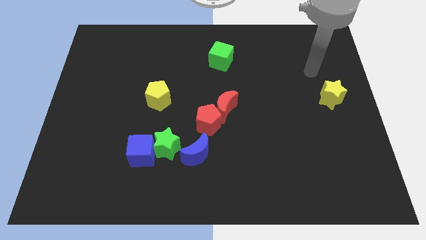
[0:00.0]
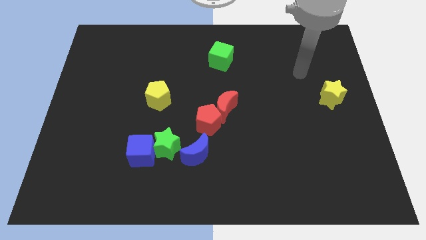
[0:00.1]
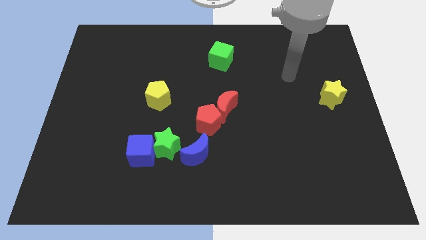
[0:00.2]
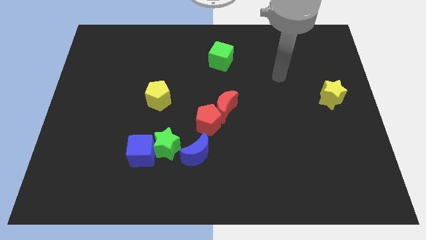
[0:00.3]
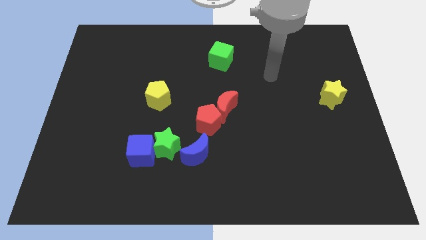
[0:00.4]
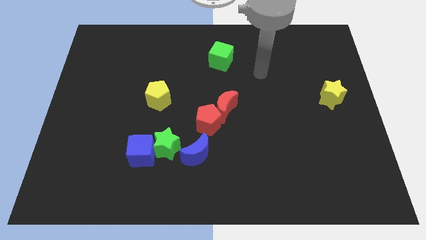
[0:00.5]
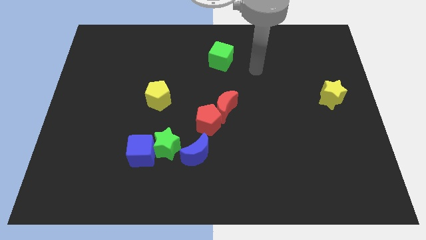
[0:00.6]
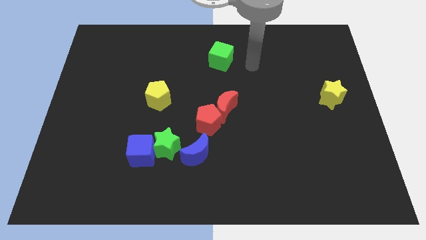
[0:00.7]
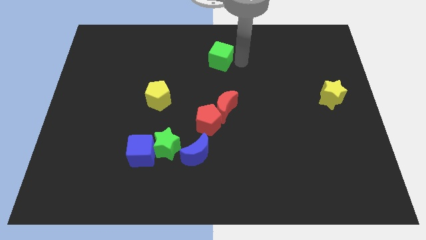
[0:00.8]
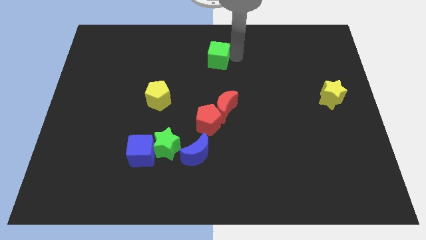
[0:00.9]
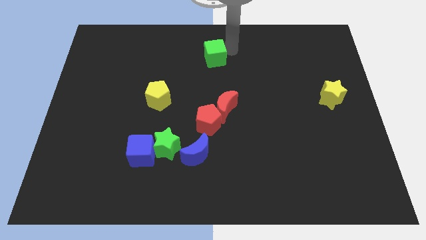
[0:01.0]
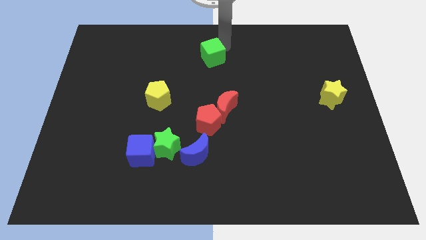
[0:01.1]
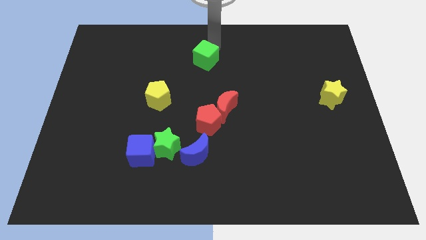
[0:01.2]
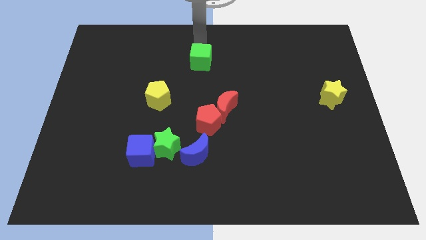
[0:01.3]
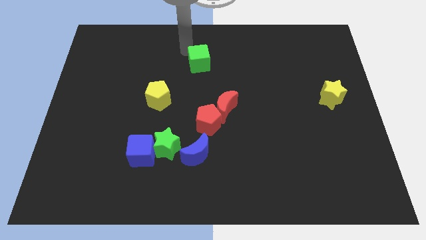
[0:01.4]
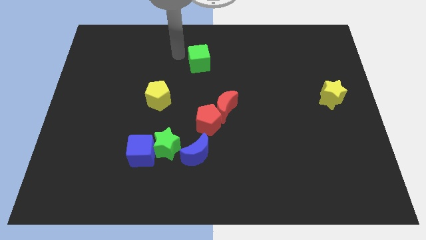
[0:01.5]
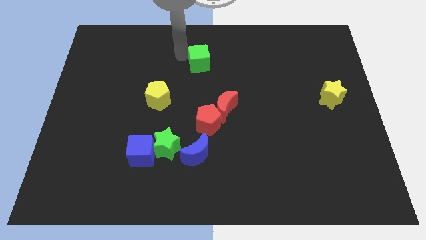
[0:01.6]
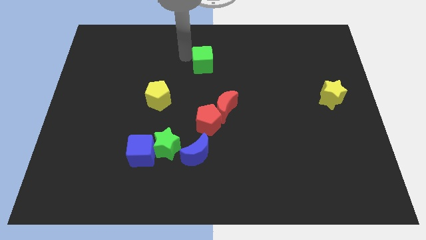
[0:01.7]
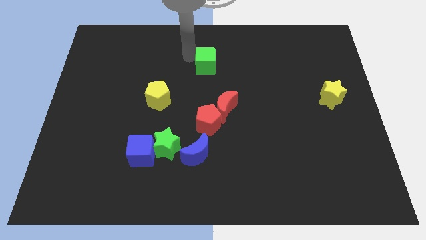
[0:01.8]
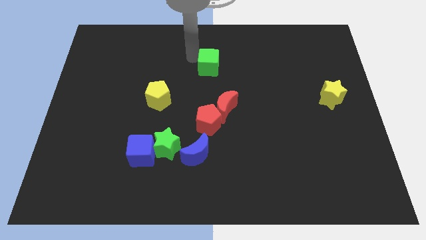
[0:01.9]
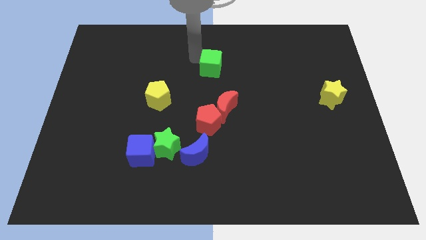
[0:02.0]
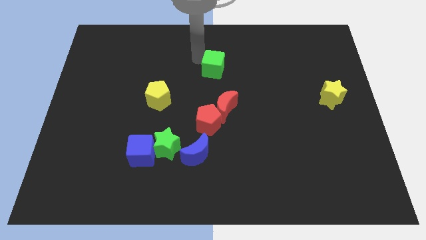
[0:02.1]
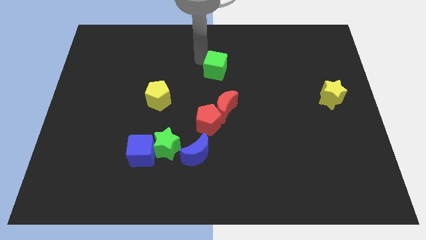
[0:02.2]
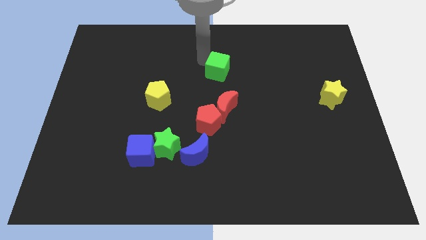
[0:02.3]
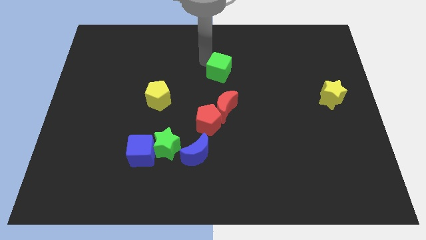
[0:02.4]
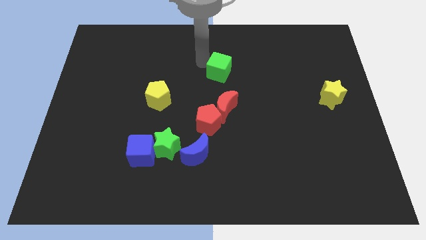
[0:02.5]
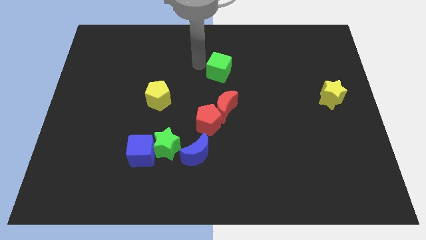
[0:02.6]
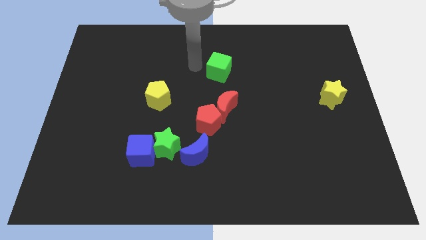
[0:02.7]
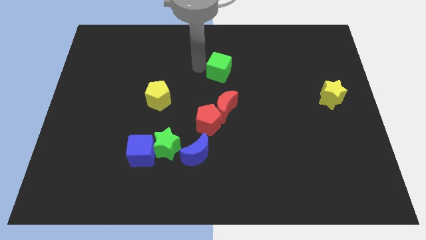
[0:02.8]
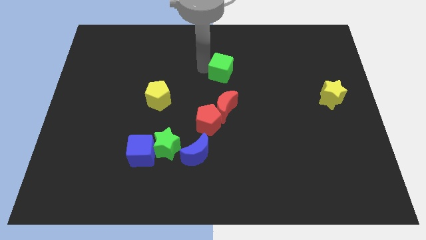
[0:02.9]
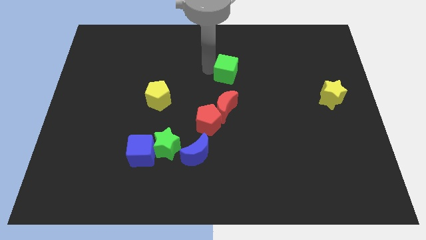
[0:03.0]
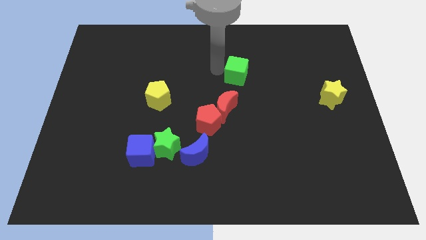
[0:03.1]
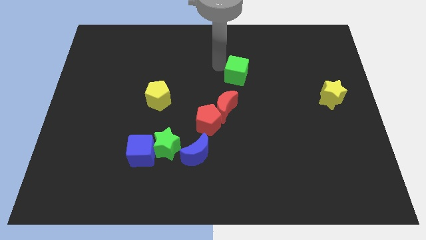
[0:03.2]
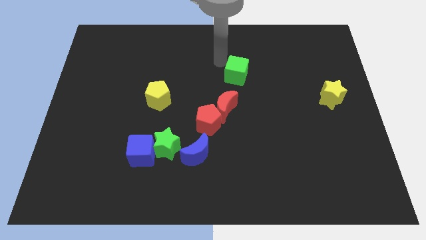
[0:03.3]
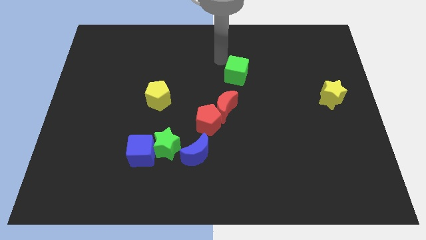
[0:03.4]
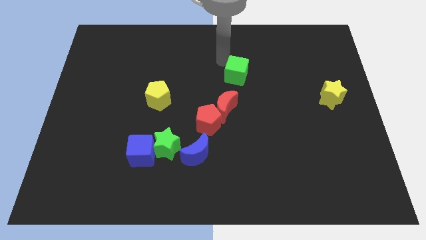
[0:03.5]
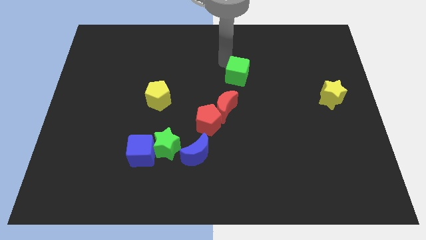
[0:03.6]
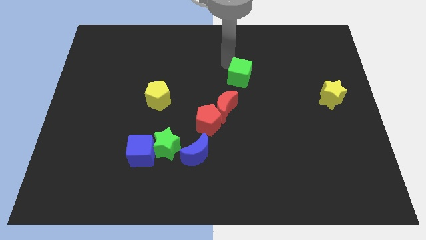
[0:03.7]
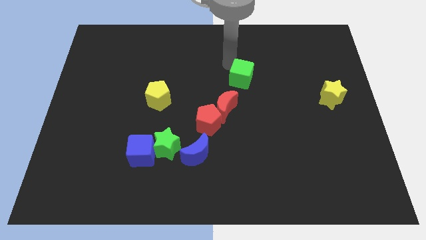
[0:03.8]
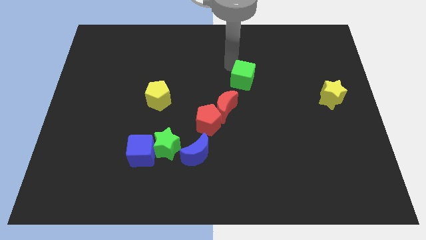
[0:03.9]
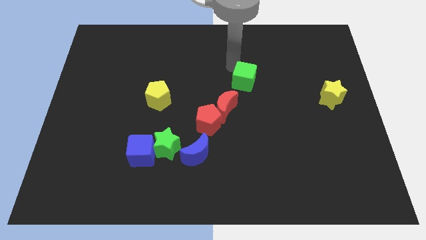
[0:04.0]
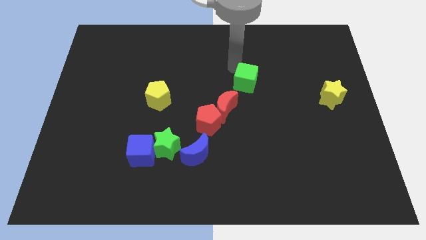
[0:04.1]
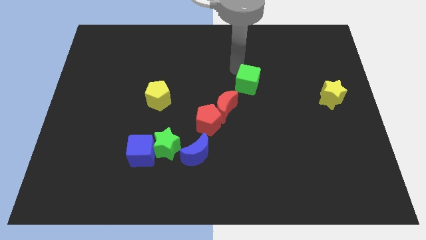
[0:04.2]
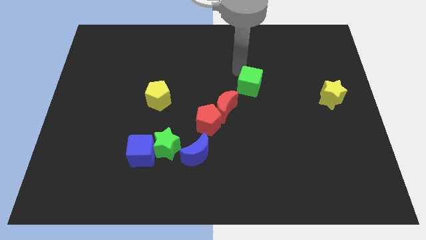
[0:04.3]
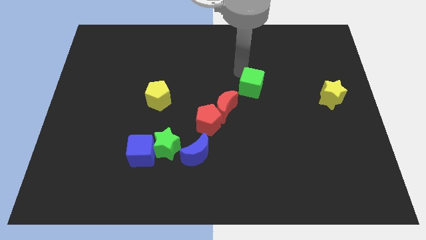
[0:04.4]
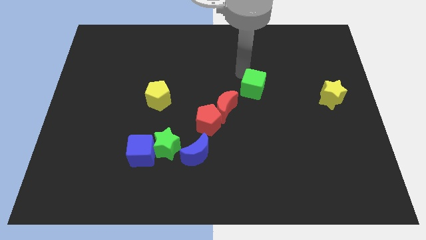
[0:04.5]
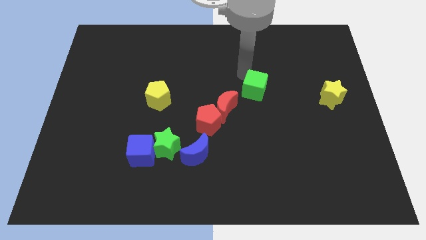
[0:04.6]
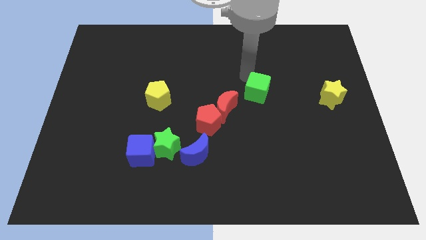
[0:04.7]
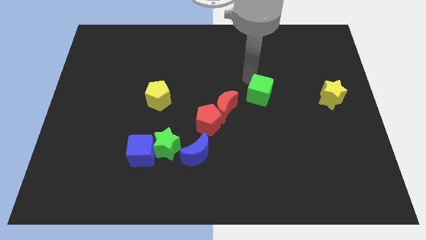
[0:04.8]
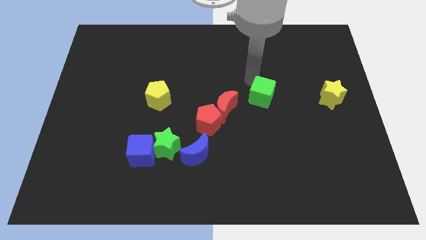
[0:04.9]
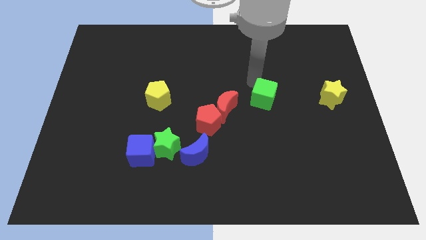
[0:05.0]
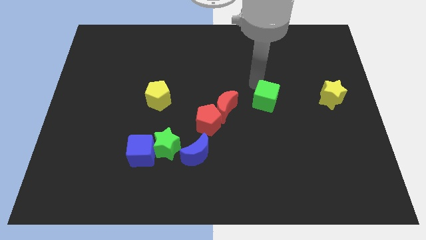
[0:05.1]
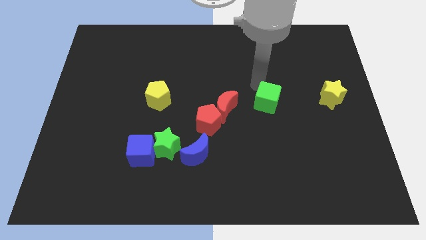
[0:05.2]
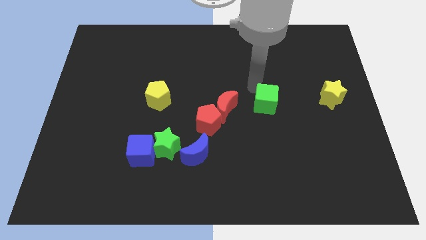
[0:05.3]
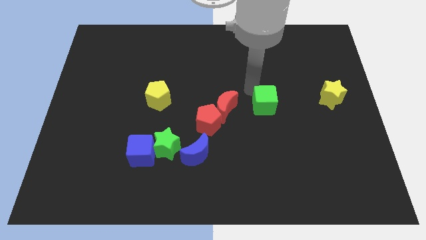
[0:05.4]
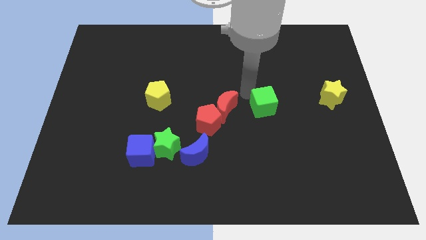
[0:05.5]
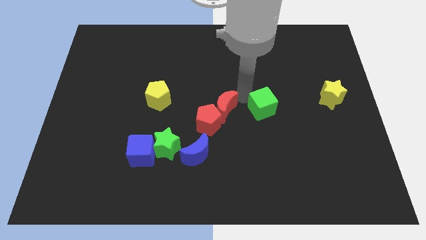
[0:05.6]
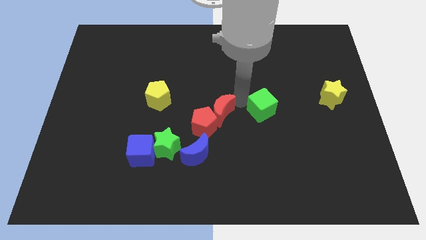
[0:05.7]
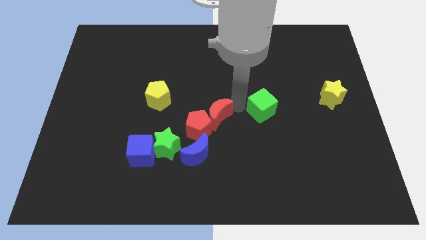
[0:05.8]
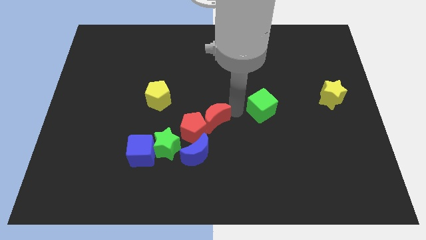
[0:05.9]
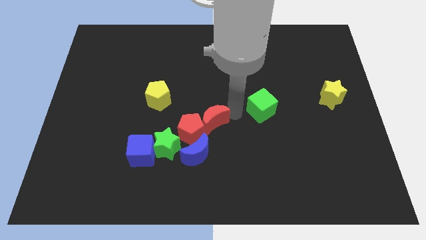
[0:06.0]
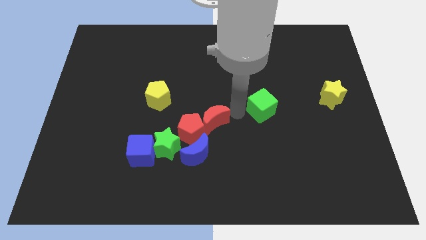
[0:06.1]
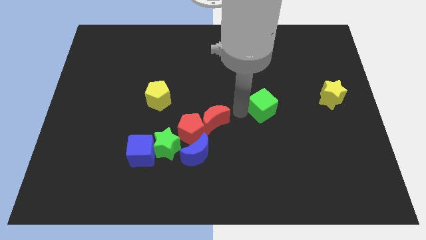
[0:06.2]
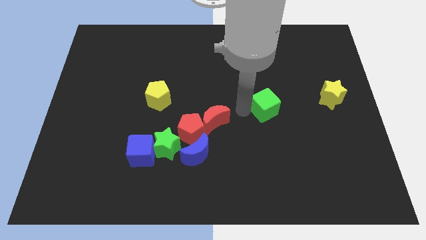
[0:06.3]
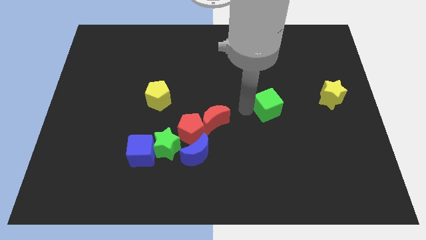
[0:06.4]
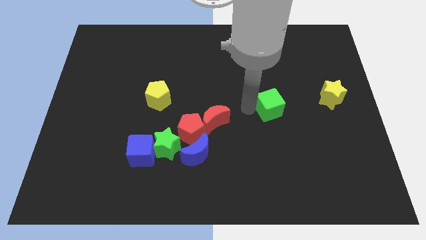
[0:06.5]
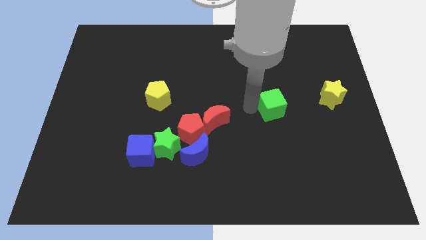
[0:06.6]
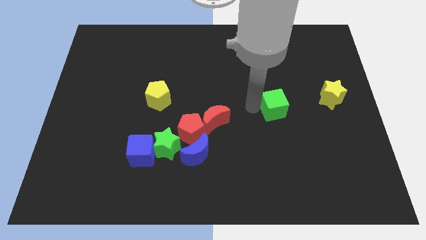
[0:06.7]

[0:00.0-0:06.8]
push the green cube diagonally down and right

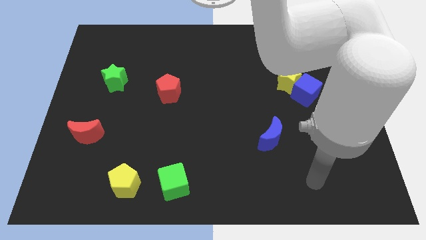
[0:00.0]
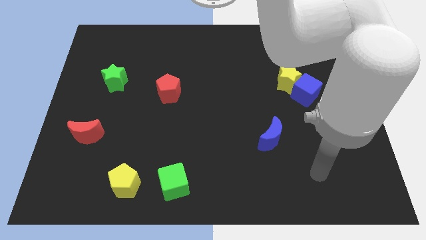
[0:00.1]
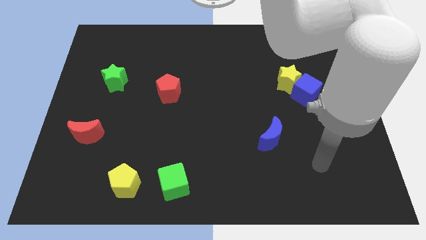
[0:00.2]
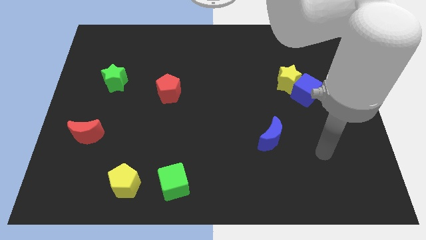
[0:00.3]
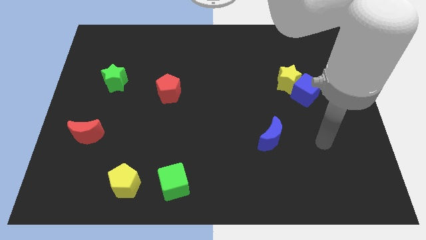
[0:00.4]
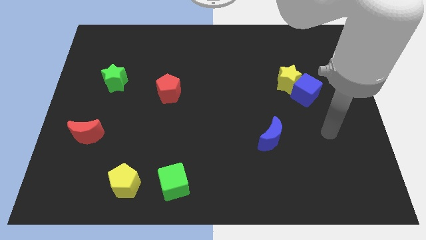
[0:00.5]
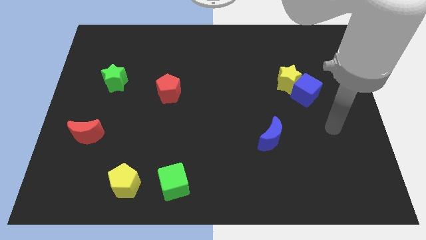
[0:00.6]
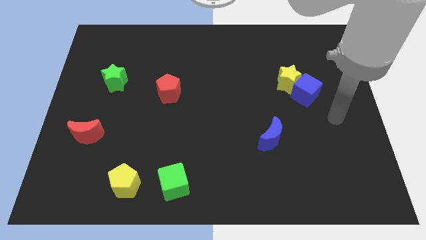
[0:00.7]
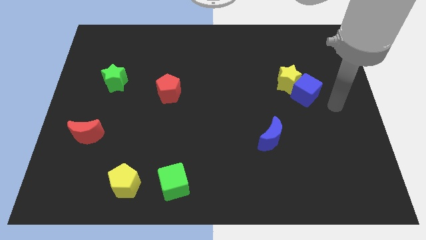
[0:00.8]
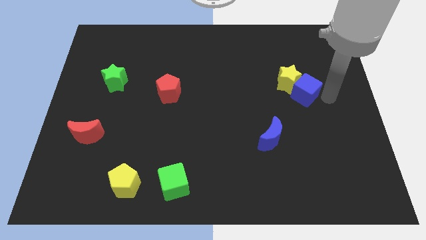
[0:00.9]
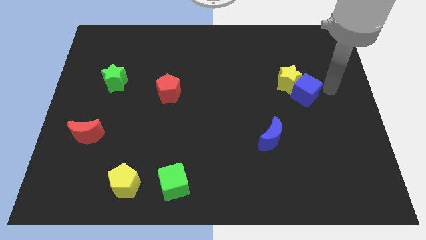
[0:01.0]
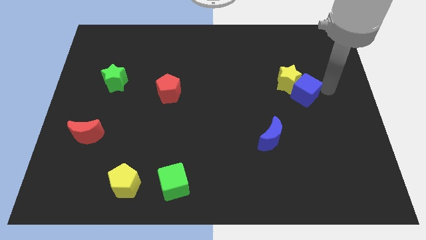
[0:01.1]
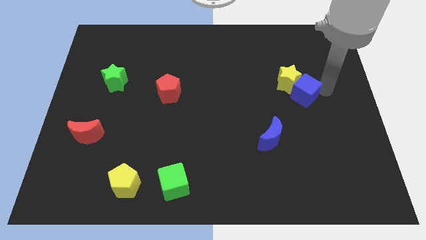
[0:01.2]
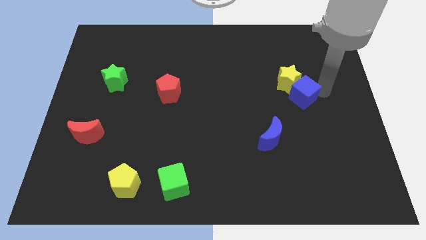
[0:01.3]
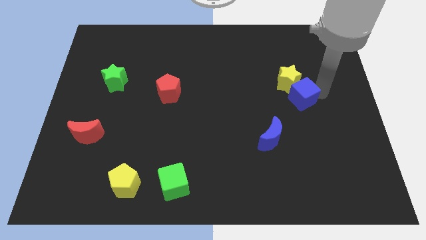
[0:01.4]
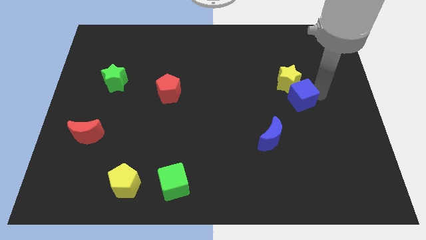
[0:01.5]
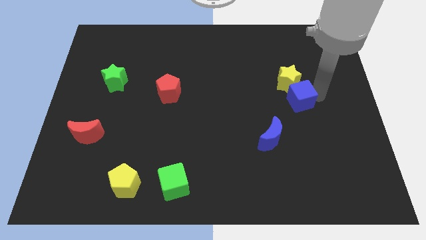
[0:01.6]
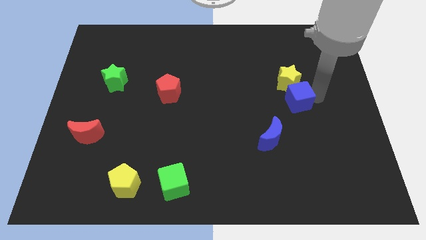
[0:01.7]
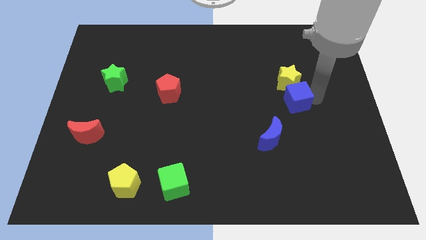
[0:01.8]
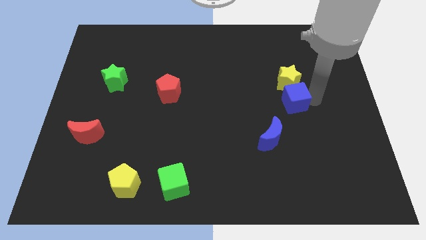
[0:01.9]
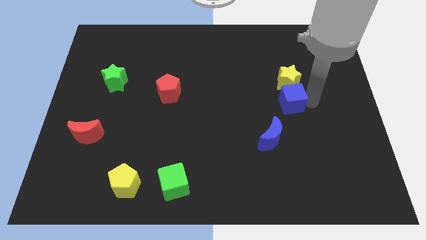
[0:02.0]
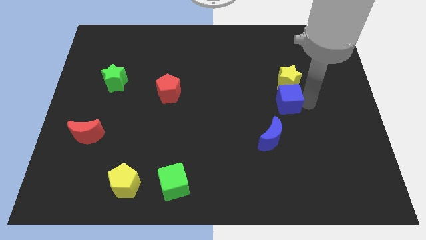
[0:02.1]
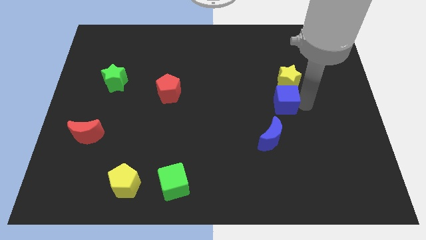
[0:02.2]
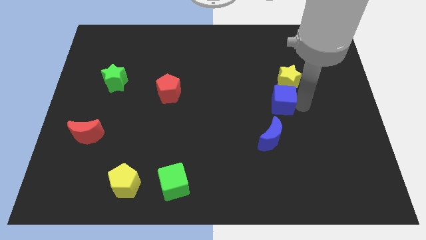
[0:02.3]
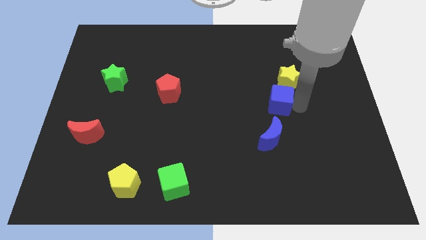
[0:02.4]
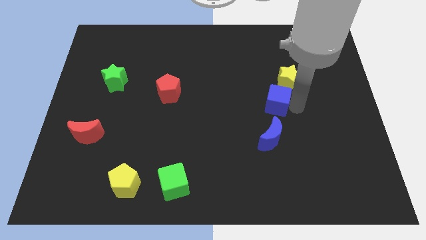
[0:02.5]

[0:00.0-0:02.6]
slide the blue cube to the left a little
